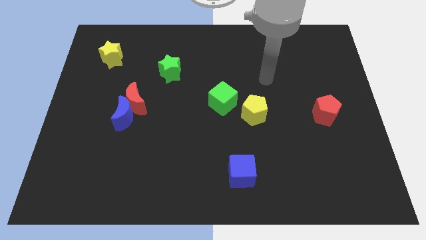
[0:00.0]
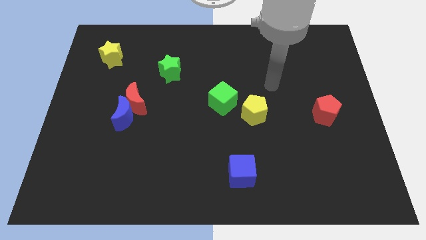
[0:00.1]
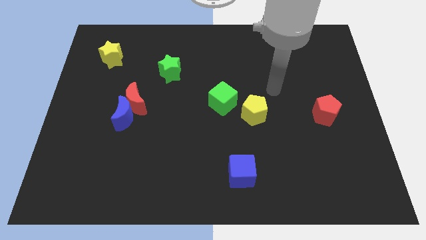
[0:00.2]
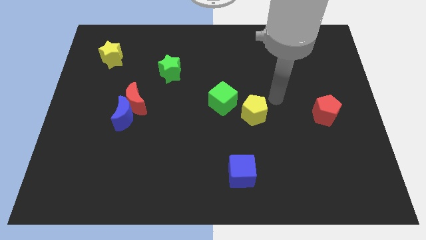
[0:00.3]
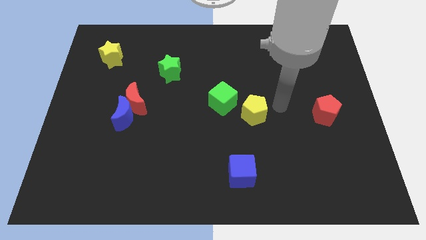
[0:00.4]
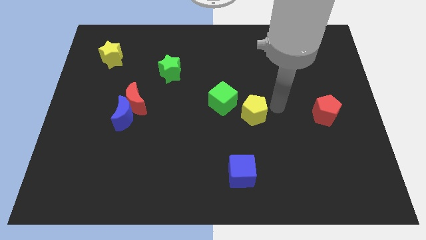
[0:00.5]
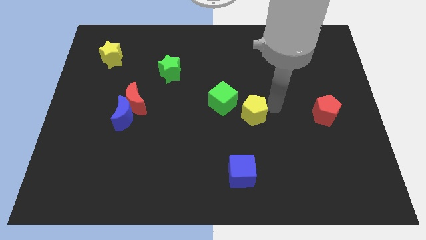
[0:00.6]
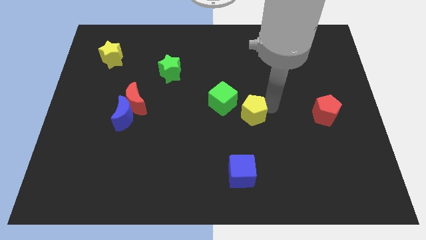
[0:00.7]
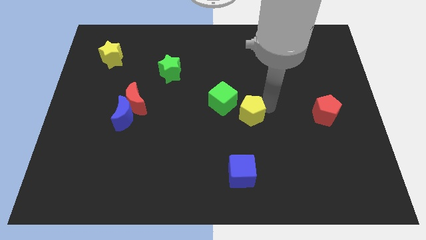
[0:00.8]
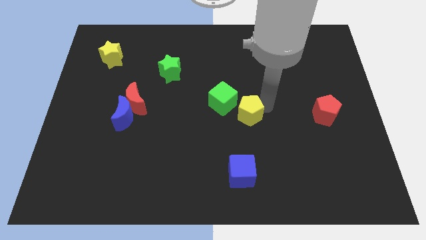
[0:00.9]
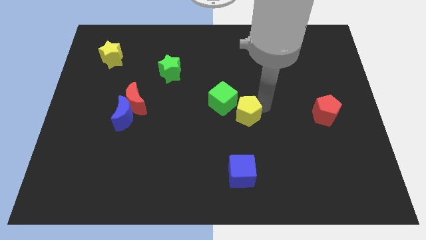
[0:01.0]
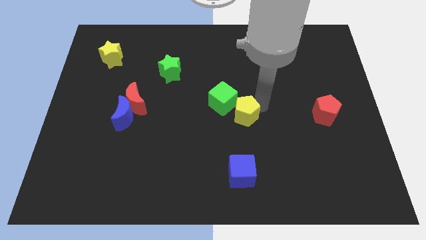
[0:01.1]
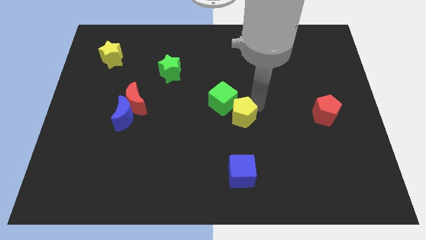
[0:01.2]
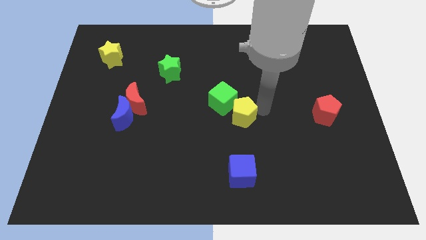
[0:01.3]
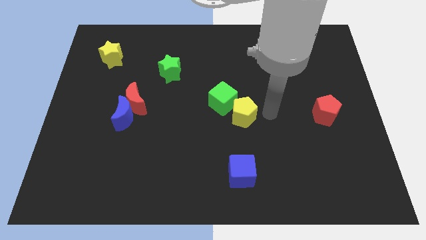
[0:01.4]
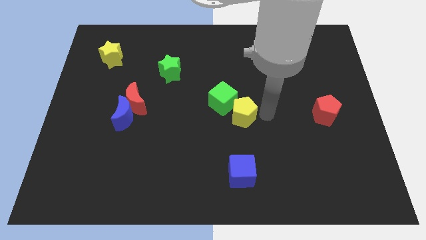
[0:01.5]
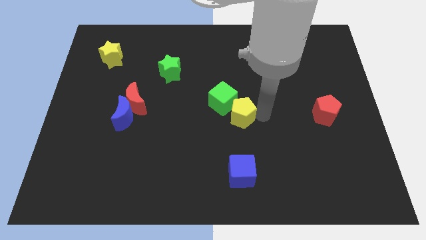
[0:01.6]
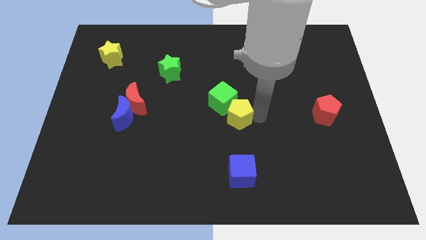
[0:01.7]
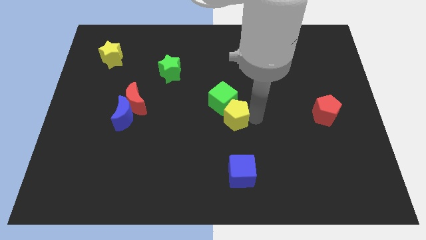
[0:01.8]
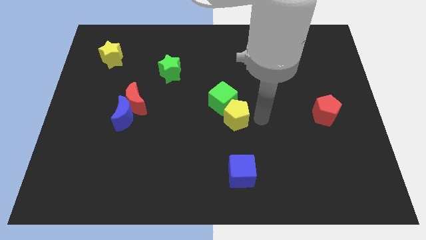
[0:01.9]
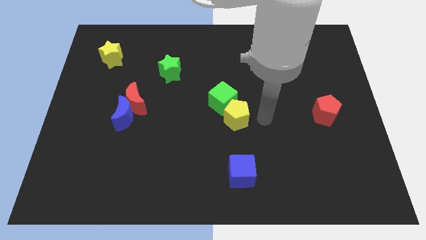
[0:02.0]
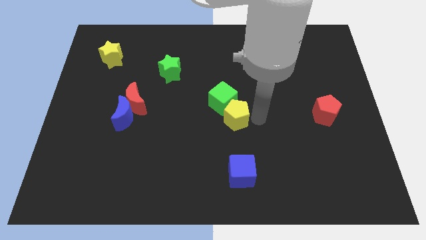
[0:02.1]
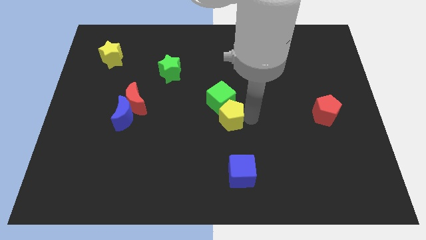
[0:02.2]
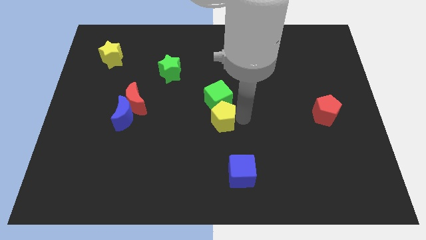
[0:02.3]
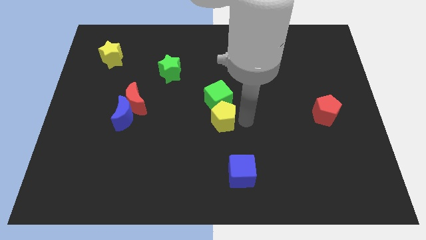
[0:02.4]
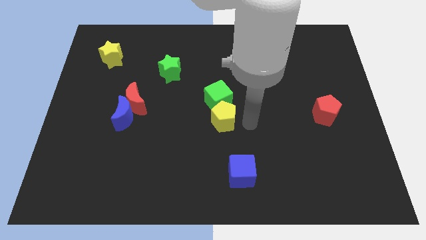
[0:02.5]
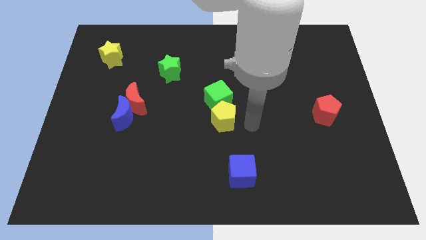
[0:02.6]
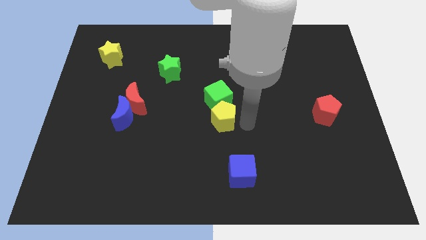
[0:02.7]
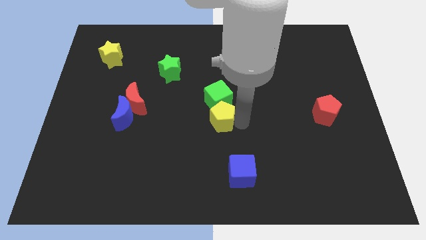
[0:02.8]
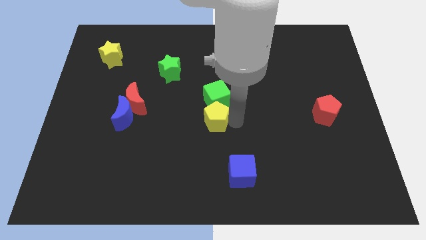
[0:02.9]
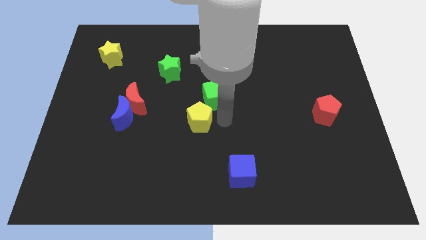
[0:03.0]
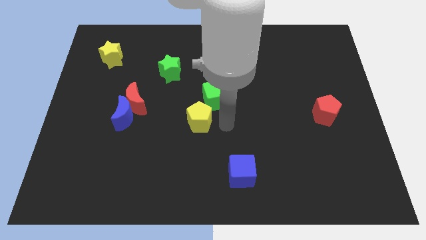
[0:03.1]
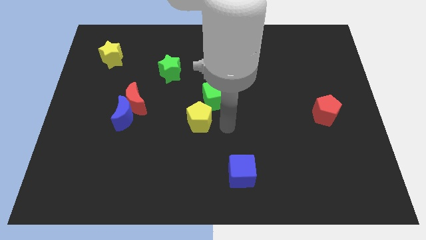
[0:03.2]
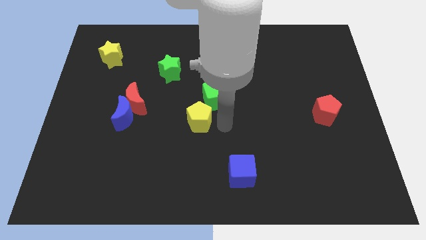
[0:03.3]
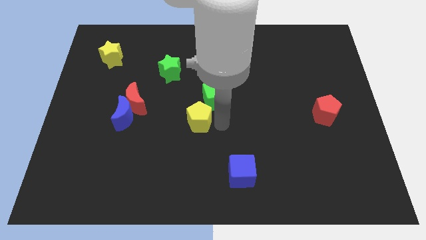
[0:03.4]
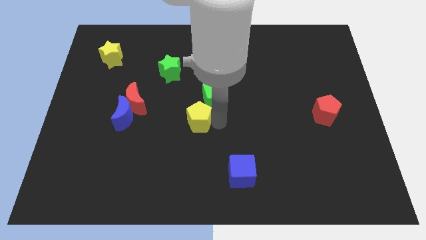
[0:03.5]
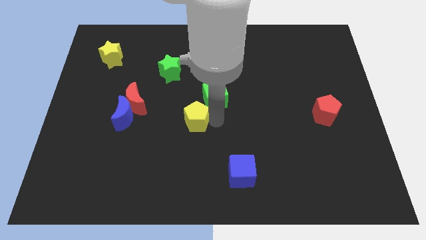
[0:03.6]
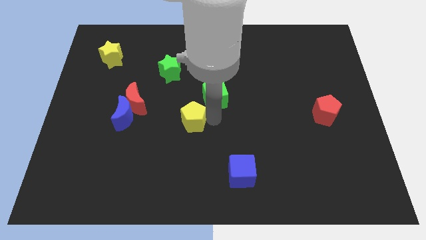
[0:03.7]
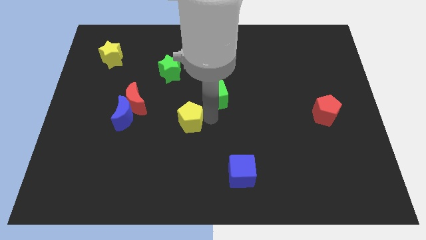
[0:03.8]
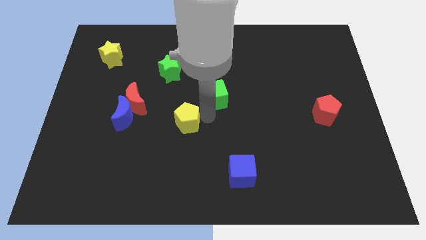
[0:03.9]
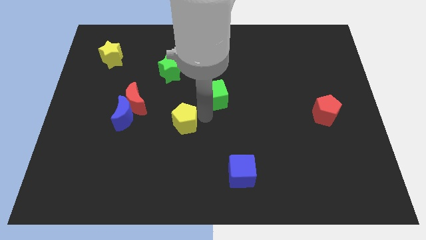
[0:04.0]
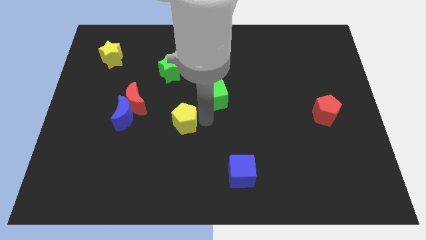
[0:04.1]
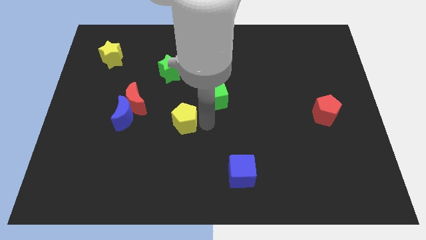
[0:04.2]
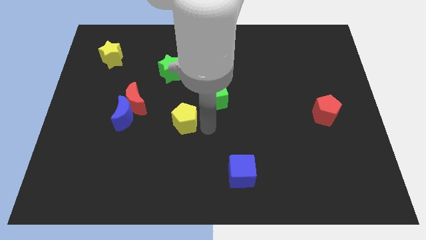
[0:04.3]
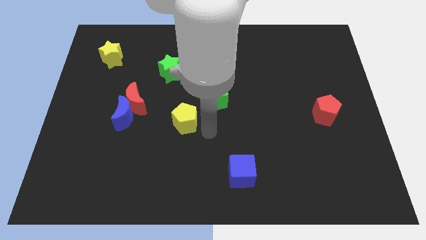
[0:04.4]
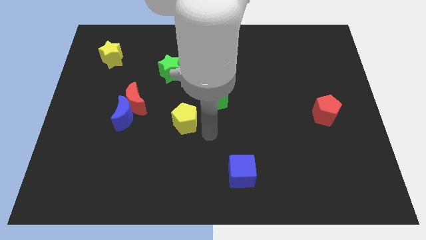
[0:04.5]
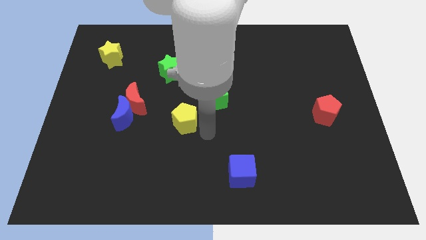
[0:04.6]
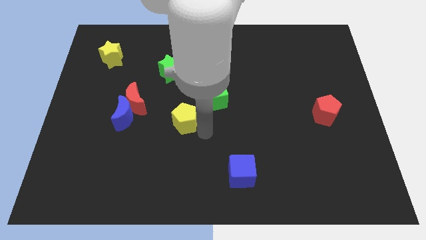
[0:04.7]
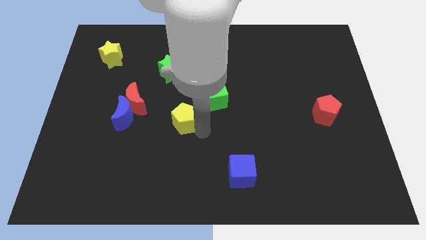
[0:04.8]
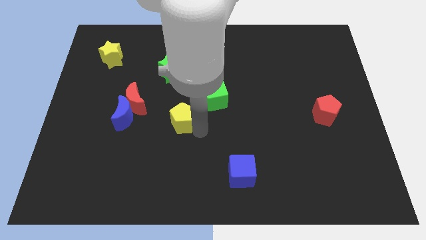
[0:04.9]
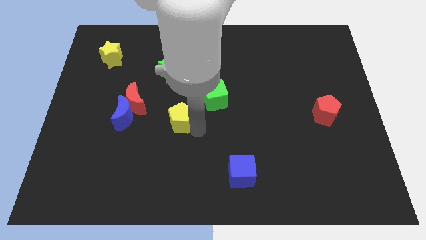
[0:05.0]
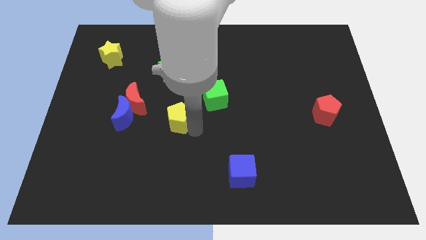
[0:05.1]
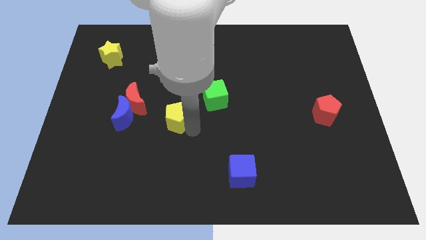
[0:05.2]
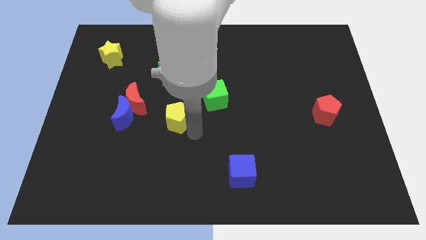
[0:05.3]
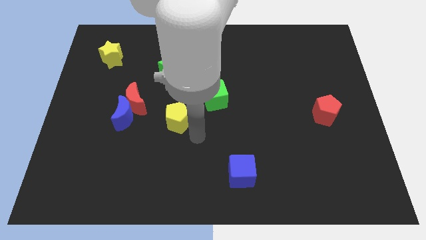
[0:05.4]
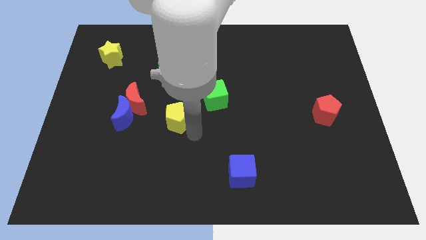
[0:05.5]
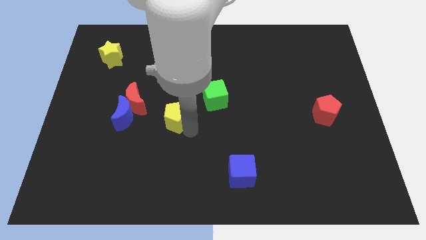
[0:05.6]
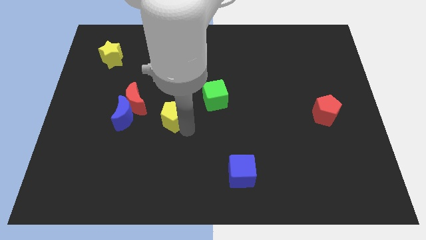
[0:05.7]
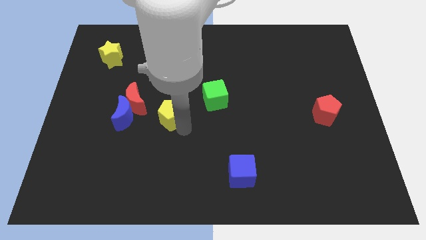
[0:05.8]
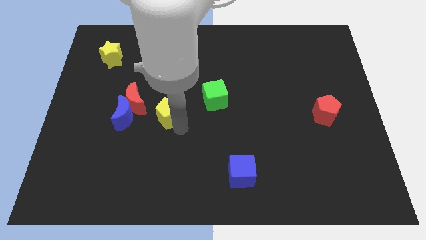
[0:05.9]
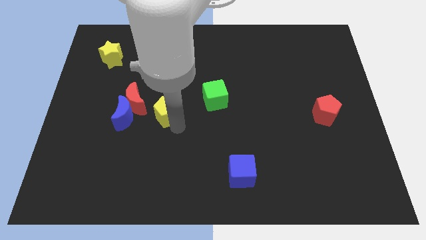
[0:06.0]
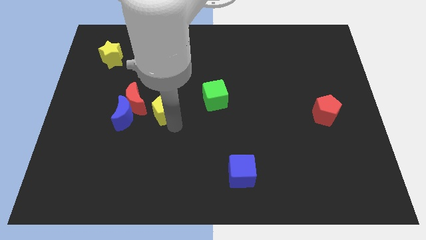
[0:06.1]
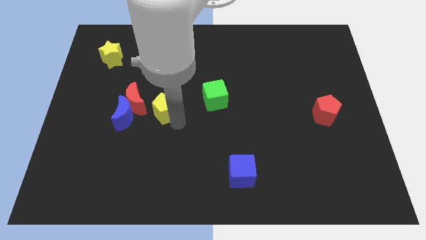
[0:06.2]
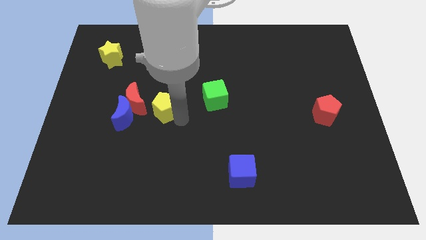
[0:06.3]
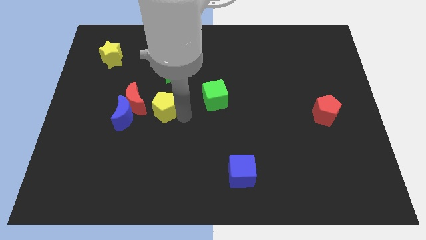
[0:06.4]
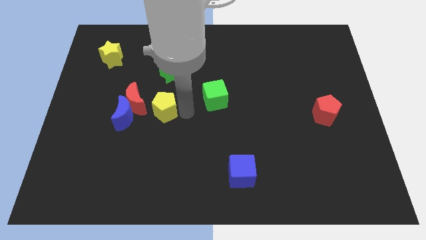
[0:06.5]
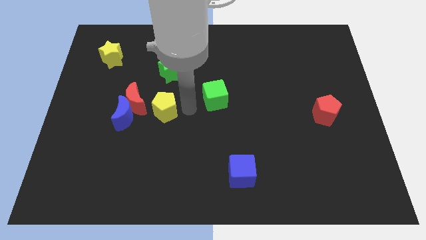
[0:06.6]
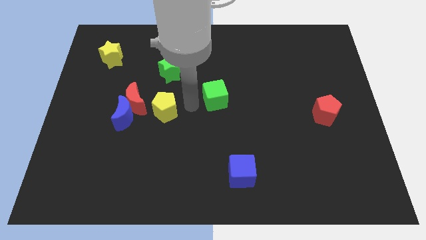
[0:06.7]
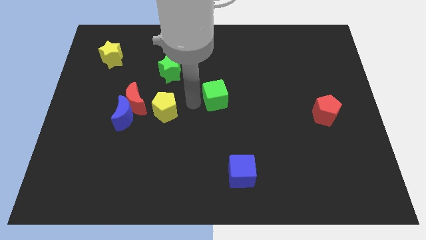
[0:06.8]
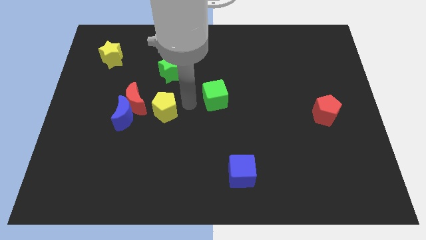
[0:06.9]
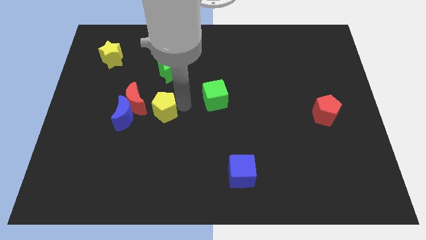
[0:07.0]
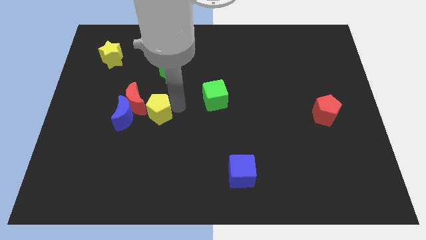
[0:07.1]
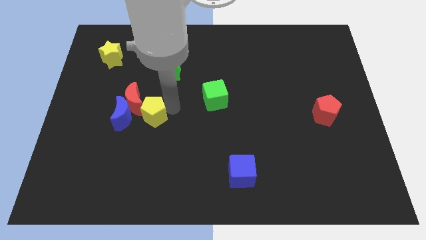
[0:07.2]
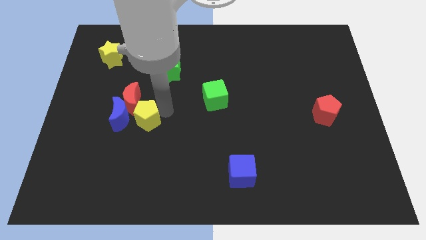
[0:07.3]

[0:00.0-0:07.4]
move the yellow pentagon towards the blue moon
